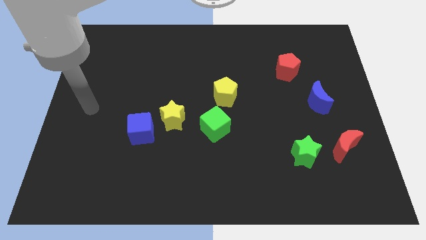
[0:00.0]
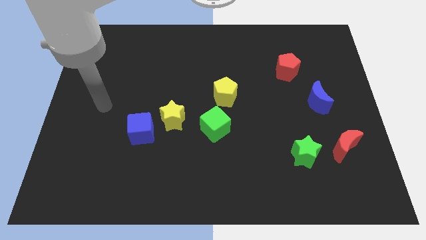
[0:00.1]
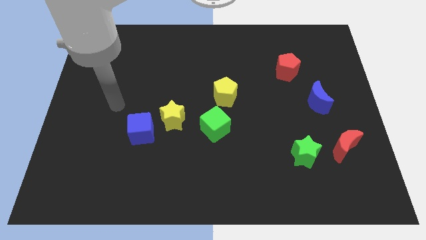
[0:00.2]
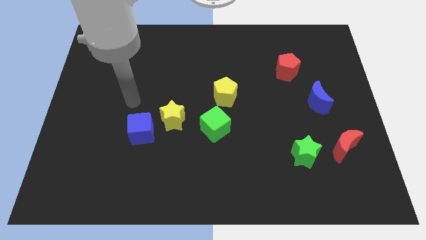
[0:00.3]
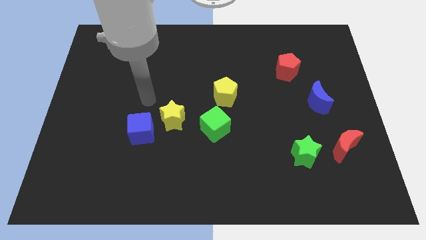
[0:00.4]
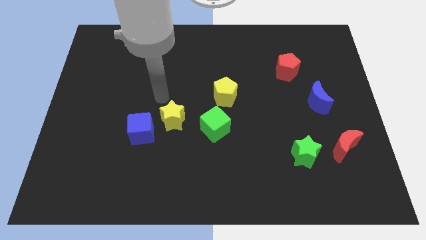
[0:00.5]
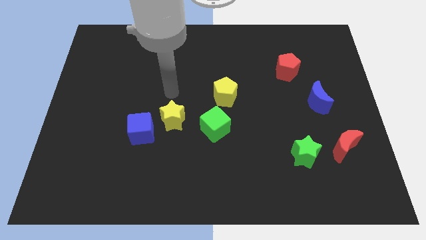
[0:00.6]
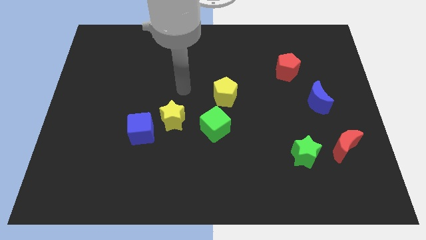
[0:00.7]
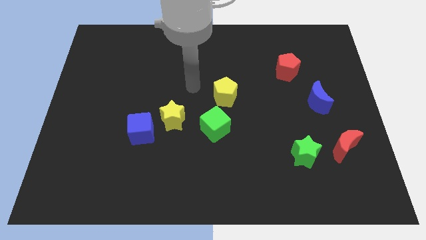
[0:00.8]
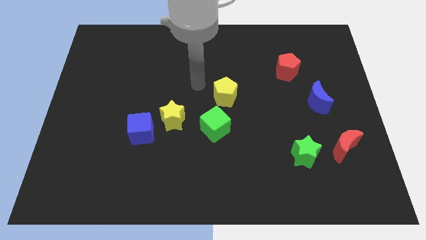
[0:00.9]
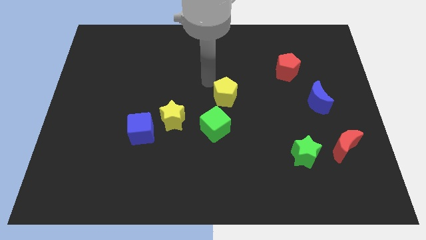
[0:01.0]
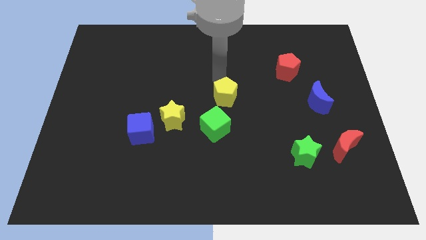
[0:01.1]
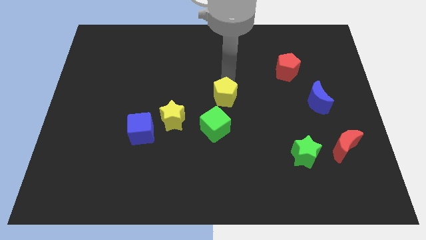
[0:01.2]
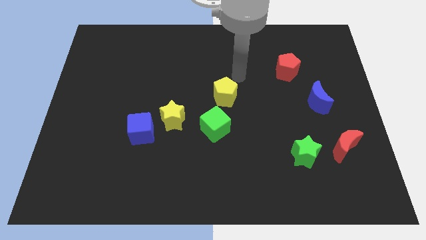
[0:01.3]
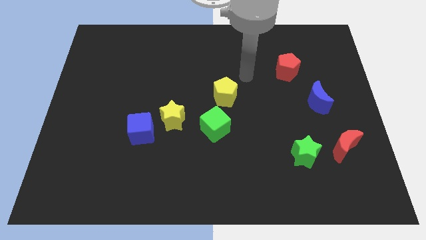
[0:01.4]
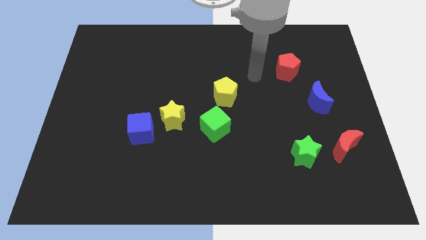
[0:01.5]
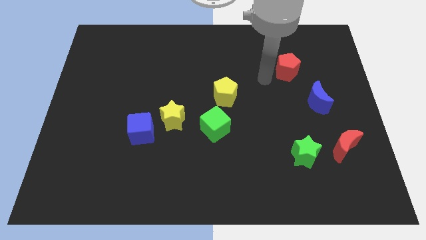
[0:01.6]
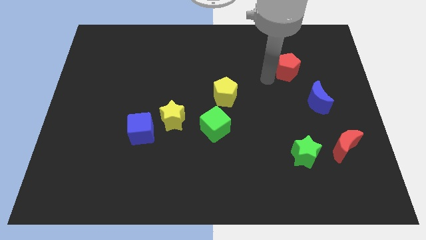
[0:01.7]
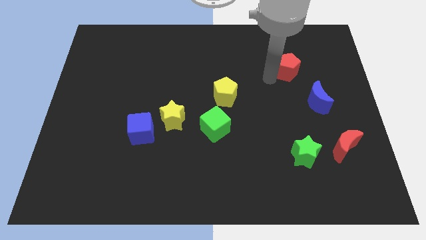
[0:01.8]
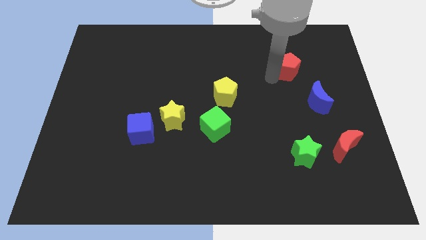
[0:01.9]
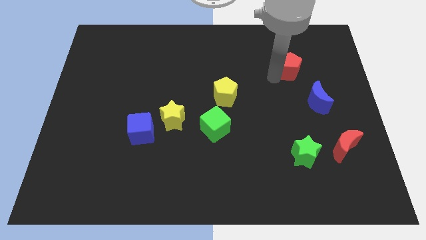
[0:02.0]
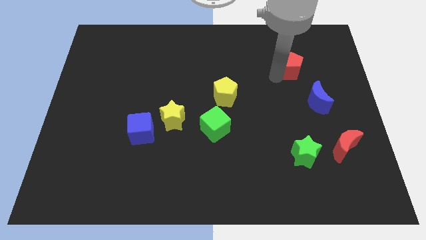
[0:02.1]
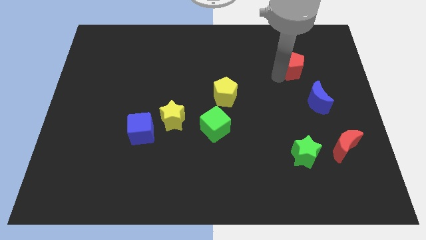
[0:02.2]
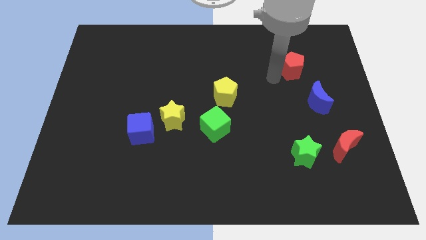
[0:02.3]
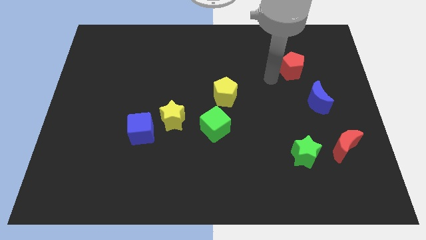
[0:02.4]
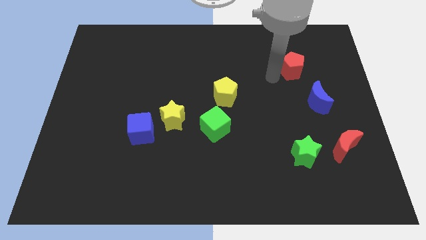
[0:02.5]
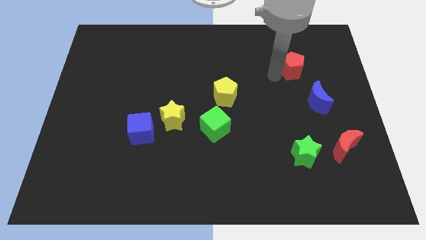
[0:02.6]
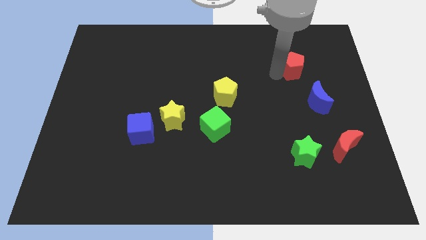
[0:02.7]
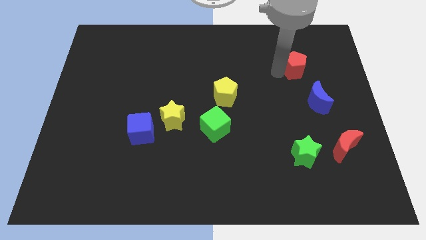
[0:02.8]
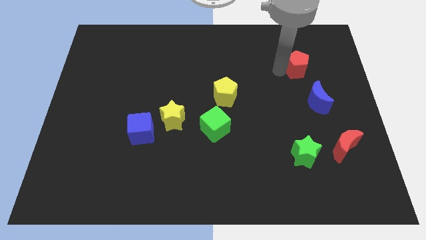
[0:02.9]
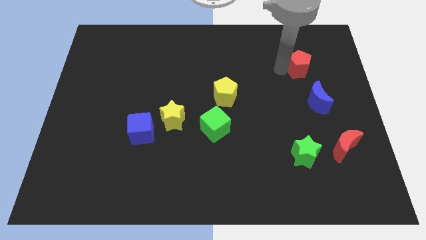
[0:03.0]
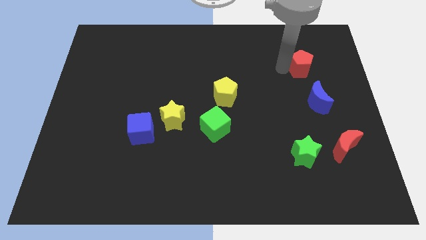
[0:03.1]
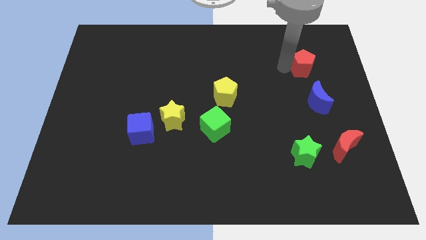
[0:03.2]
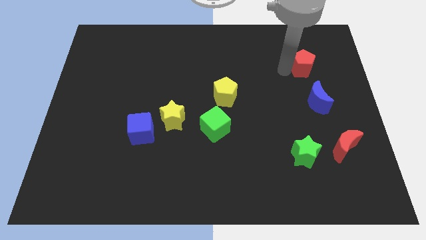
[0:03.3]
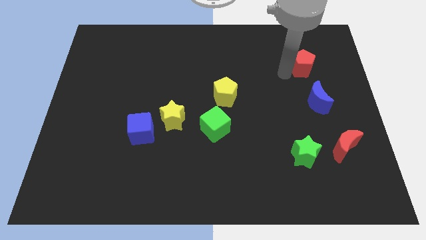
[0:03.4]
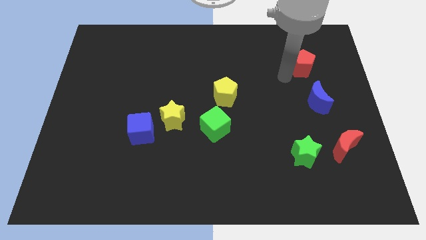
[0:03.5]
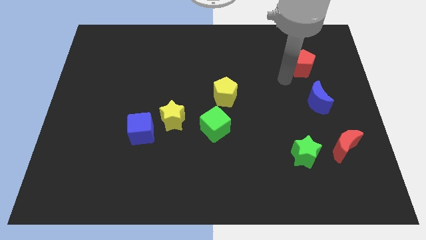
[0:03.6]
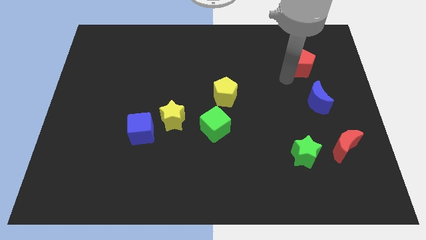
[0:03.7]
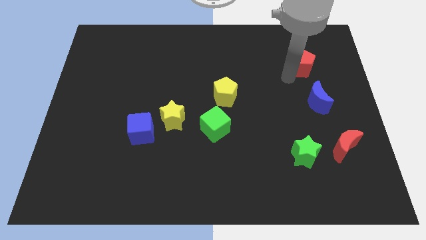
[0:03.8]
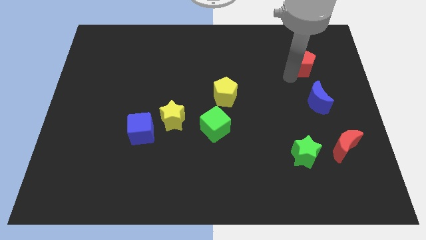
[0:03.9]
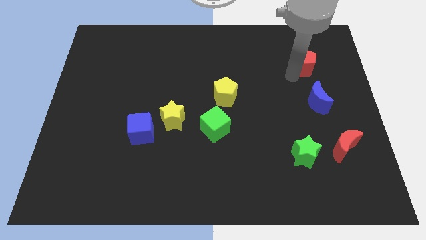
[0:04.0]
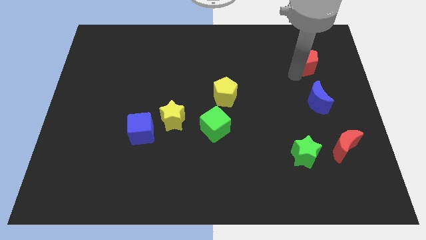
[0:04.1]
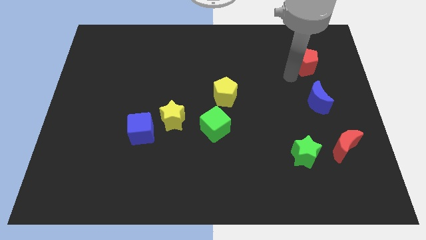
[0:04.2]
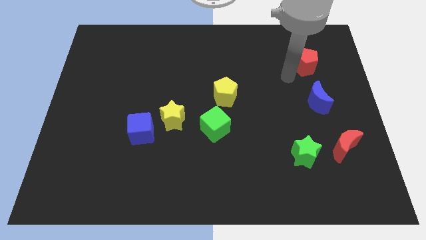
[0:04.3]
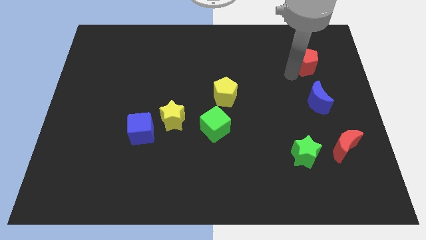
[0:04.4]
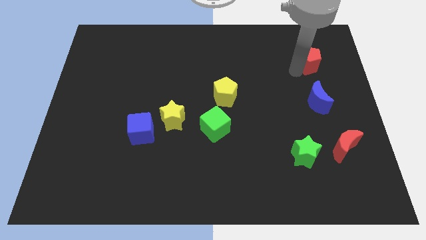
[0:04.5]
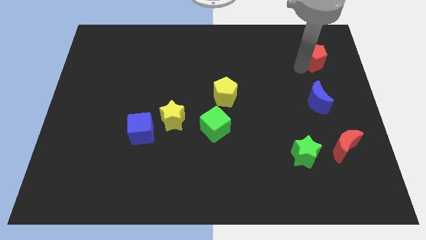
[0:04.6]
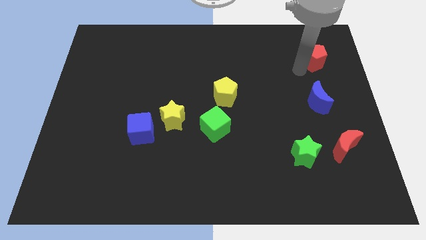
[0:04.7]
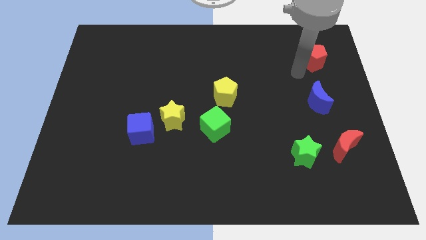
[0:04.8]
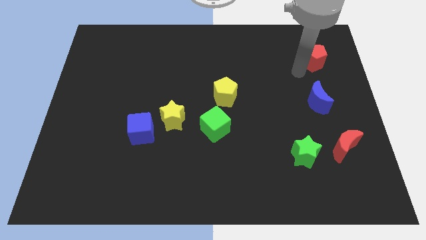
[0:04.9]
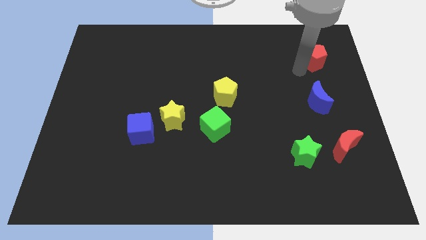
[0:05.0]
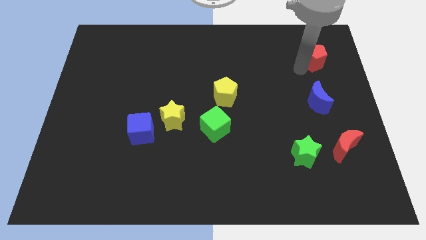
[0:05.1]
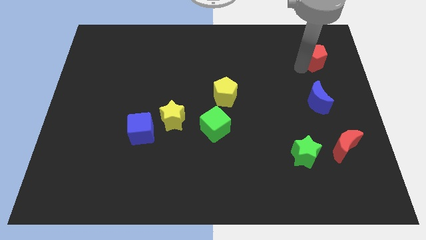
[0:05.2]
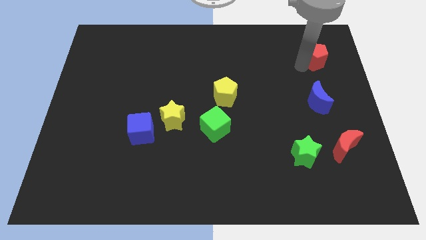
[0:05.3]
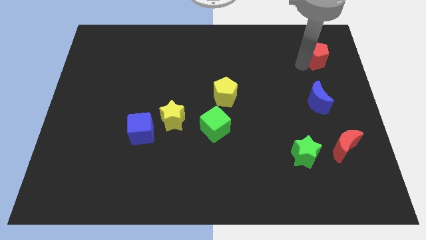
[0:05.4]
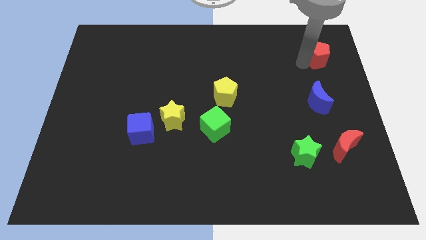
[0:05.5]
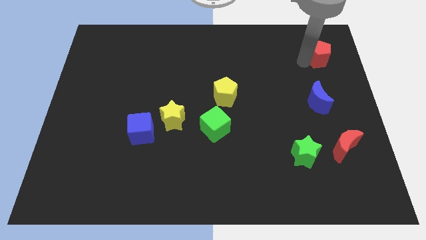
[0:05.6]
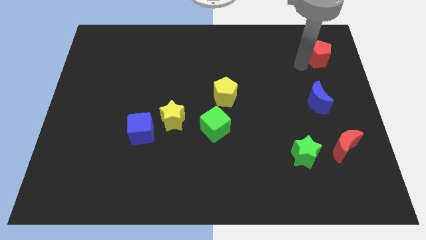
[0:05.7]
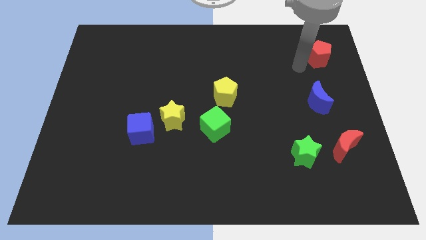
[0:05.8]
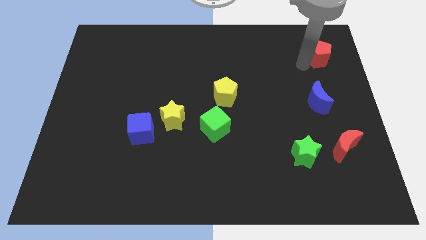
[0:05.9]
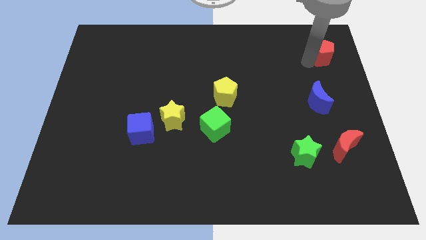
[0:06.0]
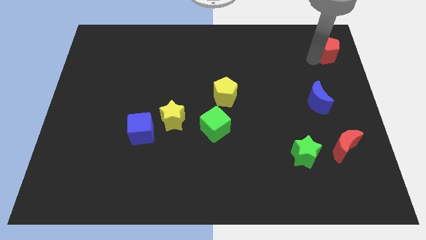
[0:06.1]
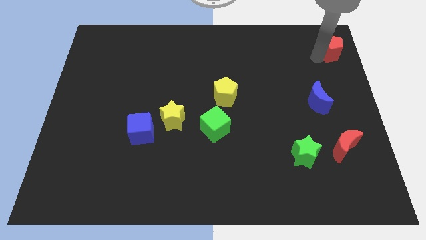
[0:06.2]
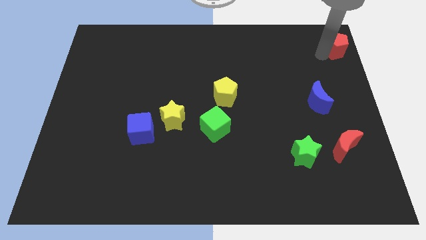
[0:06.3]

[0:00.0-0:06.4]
put the red pentagon to the top right
